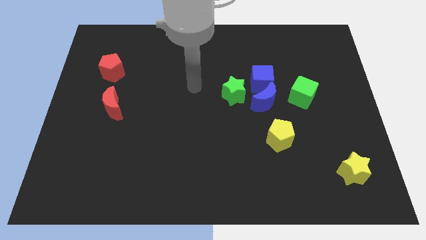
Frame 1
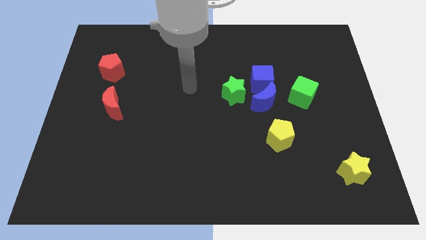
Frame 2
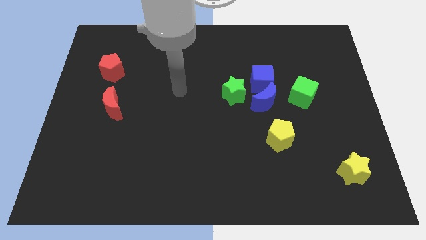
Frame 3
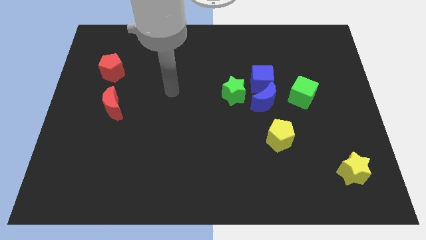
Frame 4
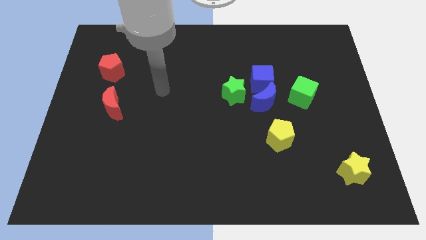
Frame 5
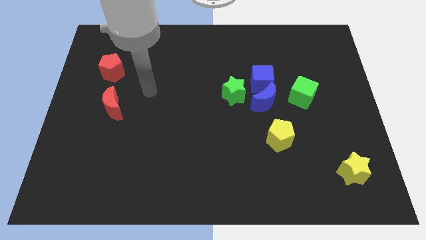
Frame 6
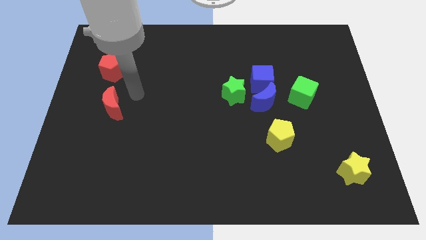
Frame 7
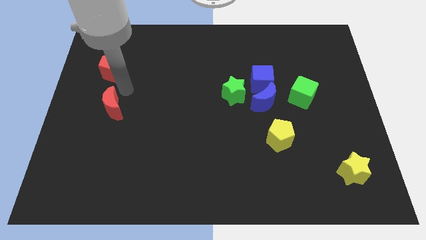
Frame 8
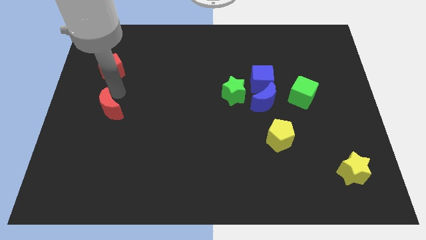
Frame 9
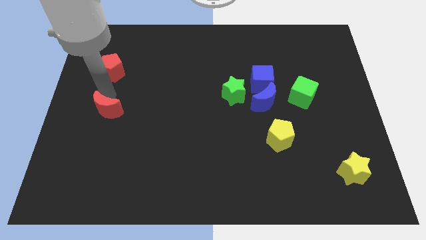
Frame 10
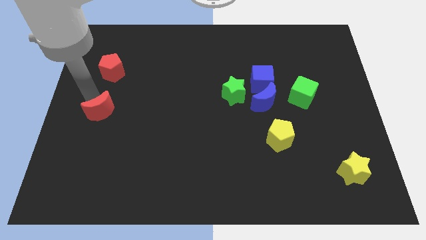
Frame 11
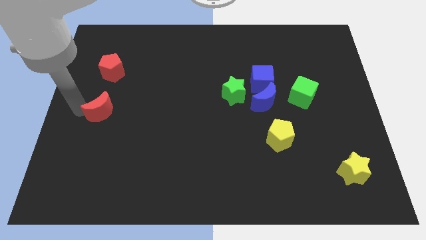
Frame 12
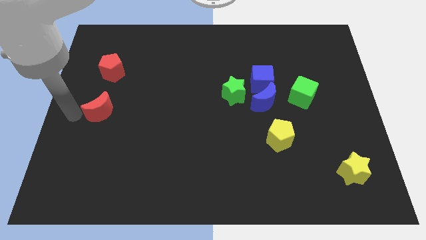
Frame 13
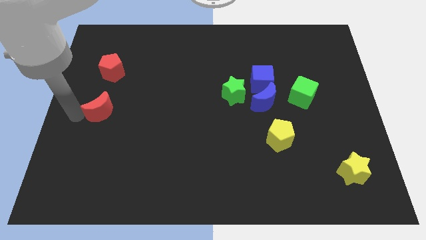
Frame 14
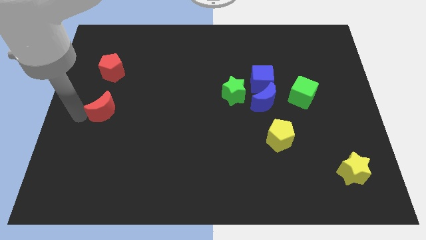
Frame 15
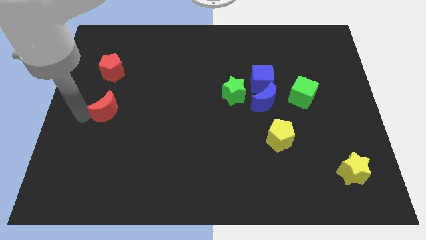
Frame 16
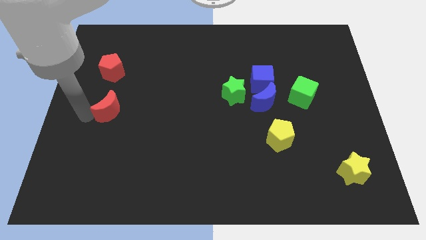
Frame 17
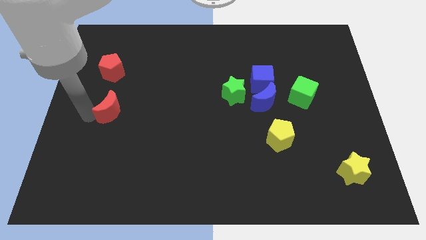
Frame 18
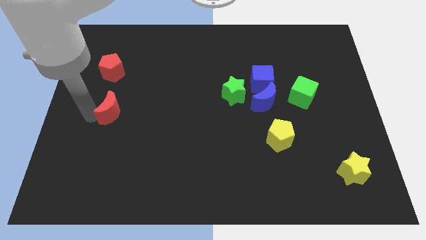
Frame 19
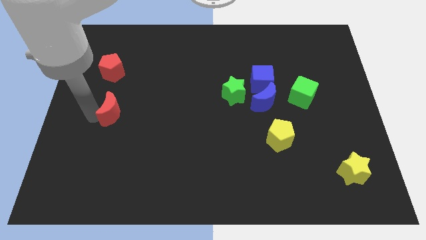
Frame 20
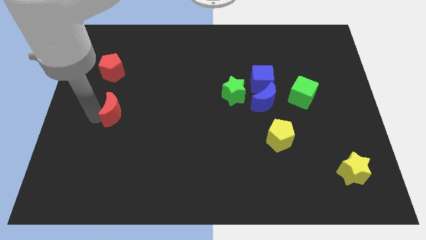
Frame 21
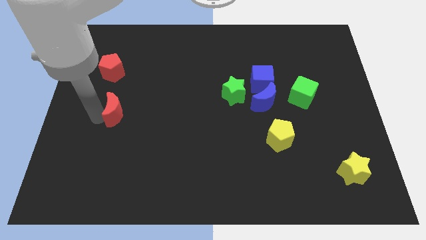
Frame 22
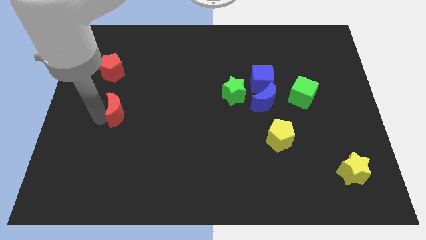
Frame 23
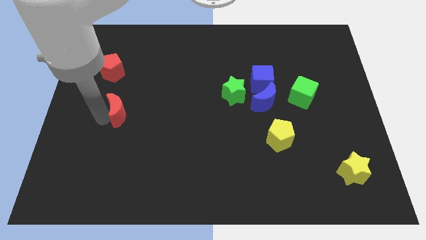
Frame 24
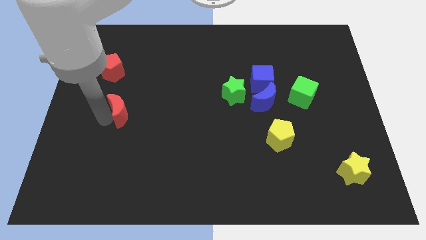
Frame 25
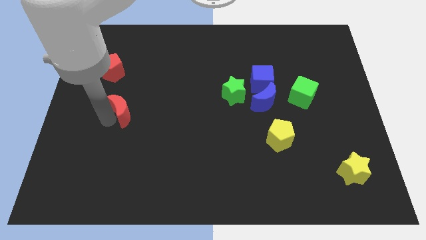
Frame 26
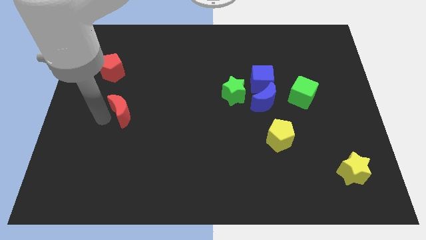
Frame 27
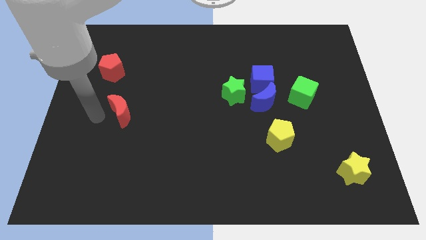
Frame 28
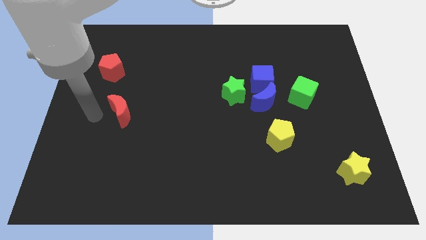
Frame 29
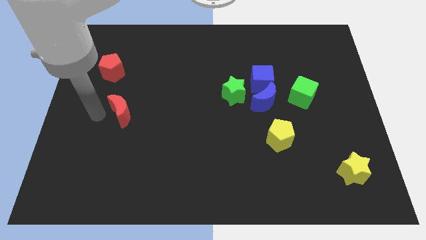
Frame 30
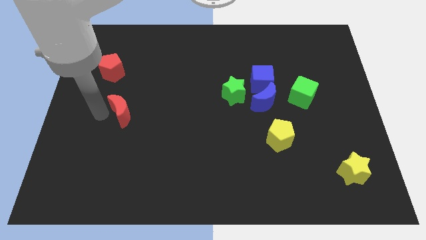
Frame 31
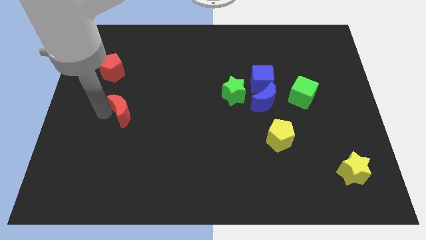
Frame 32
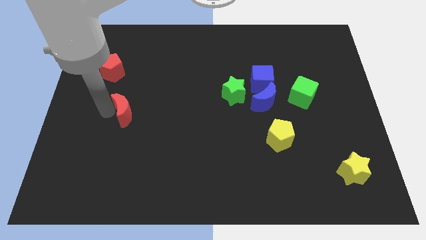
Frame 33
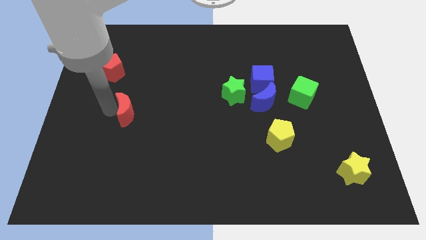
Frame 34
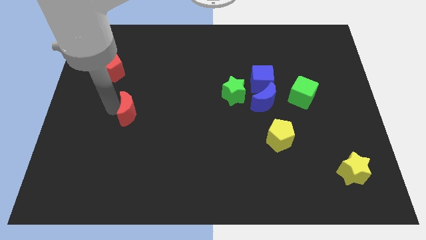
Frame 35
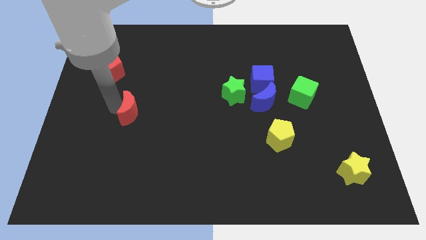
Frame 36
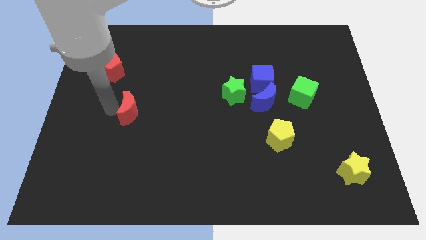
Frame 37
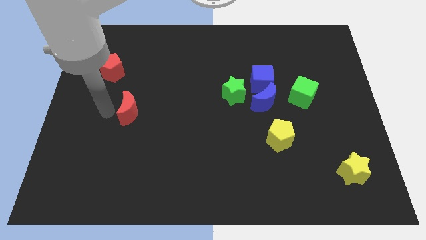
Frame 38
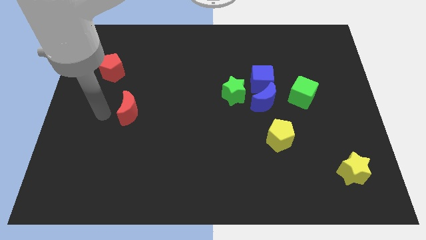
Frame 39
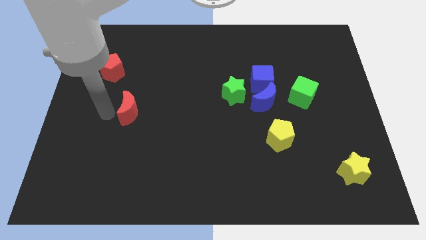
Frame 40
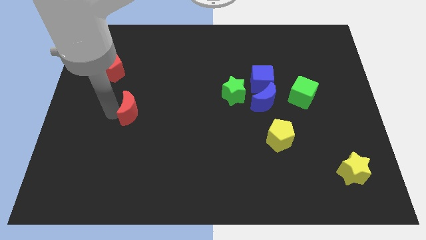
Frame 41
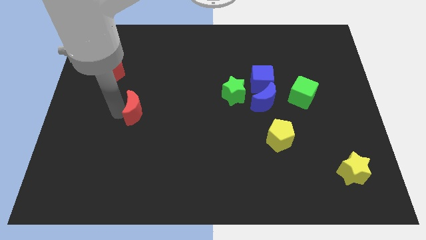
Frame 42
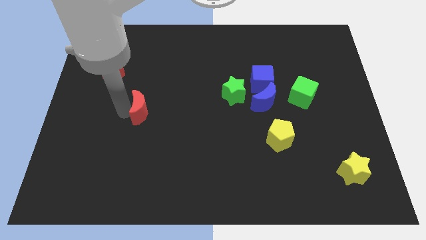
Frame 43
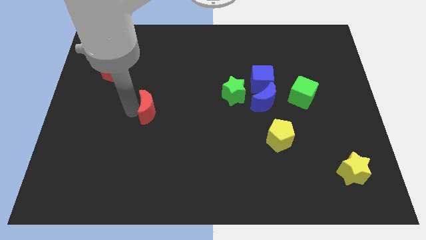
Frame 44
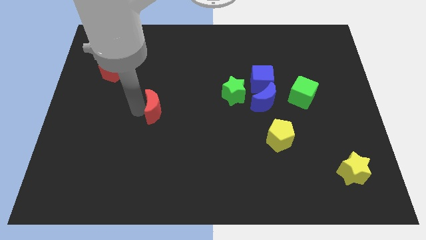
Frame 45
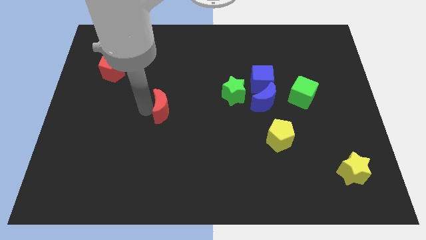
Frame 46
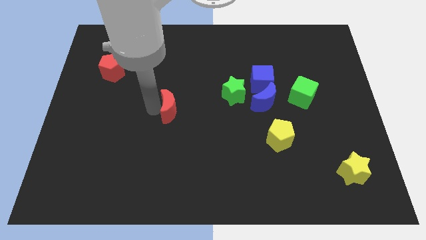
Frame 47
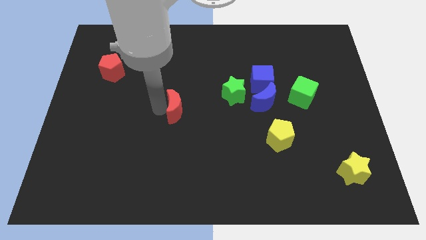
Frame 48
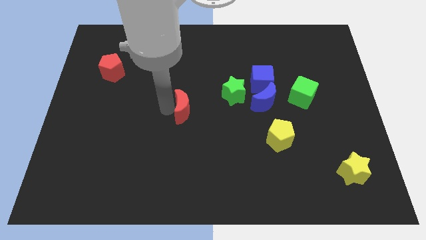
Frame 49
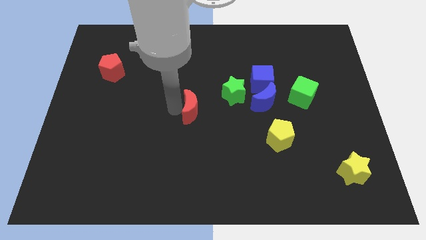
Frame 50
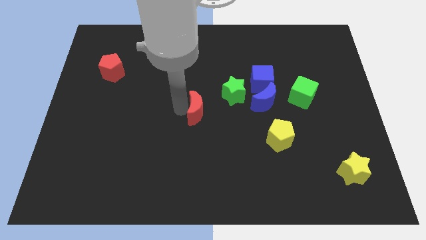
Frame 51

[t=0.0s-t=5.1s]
move the red moon right

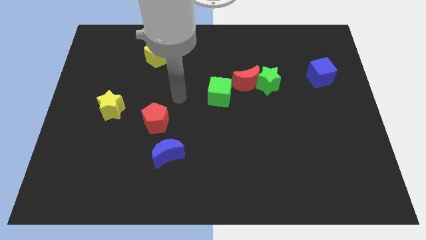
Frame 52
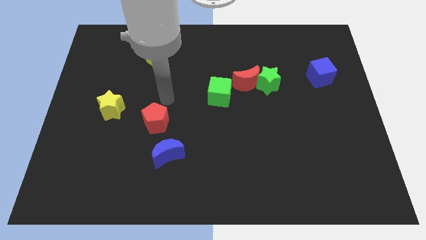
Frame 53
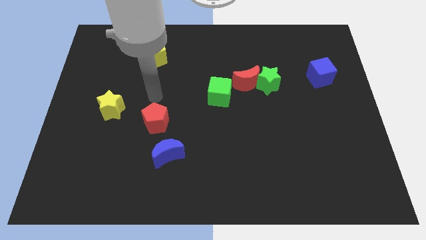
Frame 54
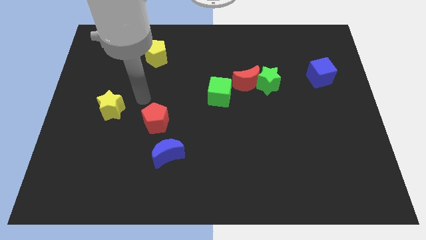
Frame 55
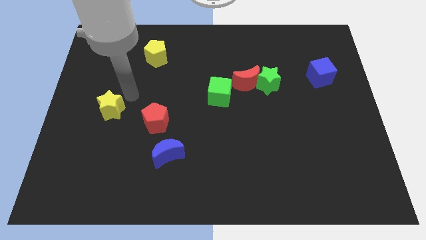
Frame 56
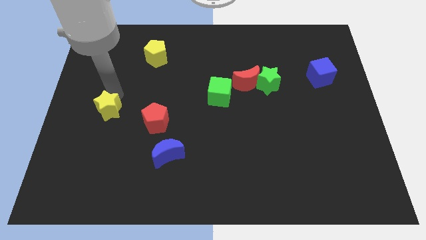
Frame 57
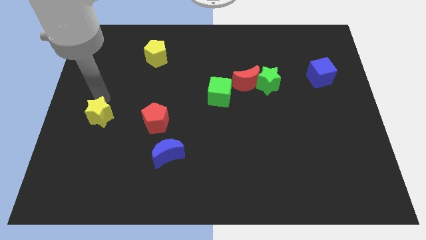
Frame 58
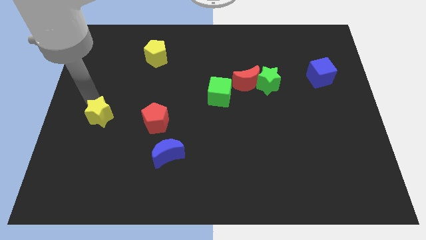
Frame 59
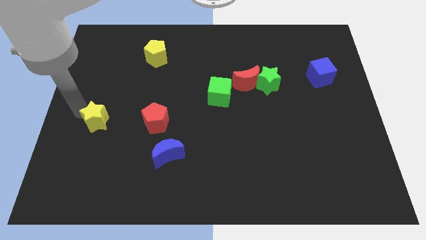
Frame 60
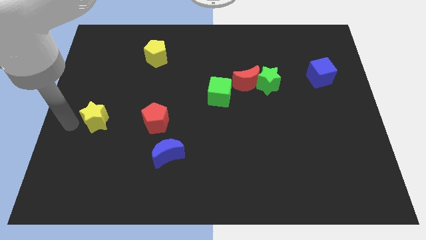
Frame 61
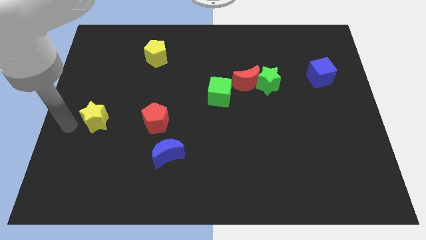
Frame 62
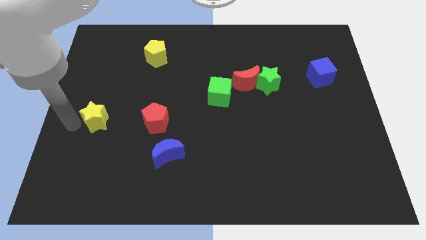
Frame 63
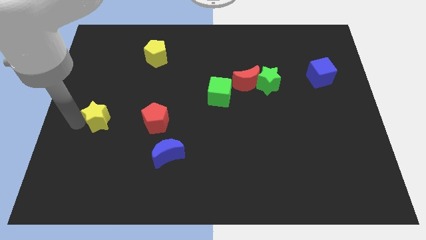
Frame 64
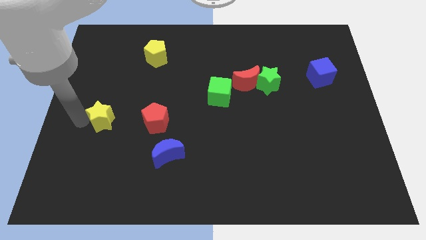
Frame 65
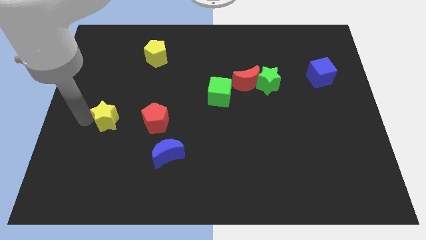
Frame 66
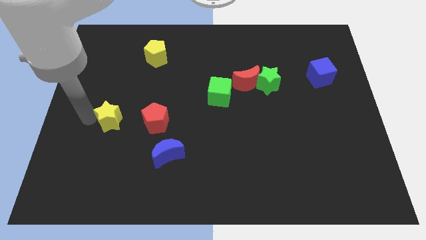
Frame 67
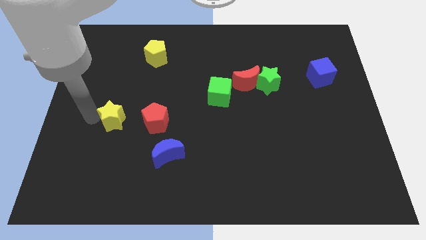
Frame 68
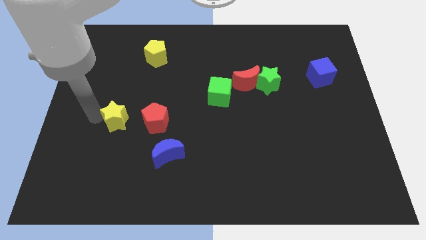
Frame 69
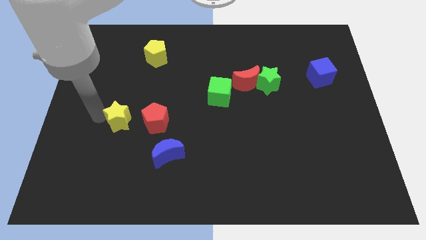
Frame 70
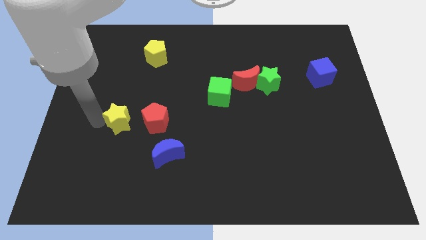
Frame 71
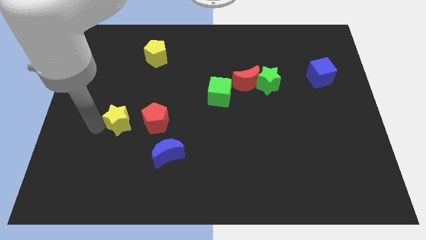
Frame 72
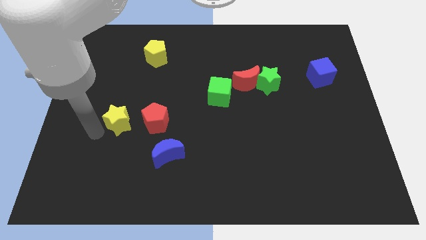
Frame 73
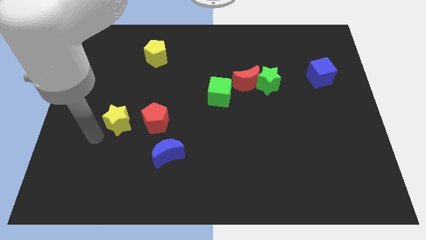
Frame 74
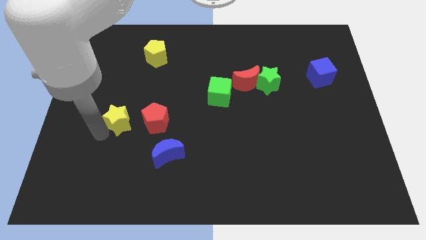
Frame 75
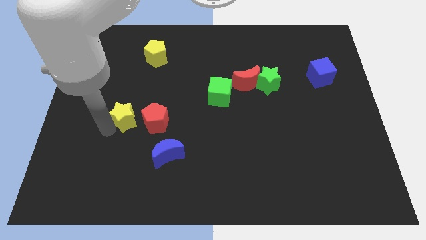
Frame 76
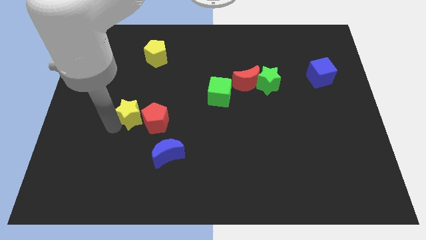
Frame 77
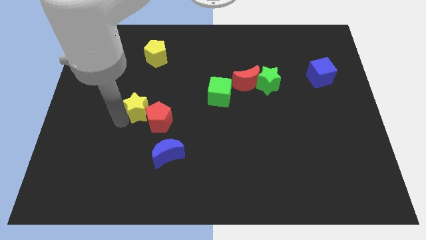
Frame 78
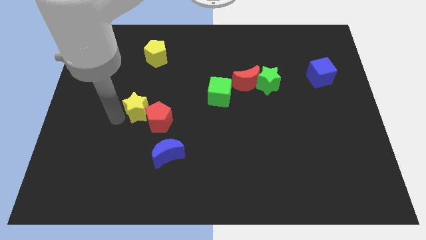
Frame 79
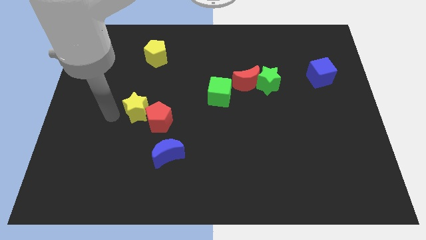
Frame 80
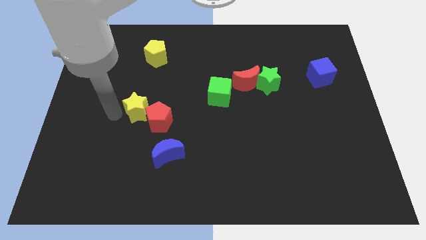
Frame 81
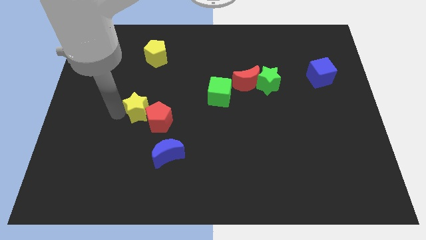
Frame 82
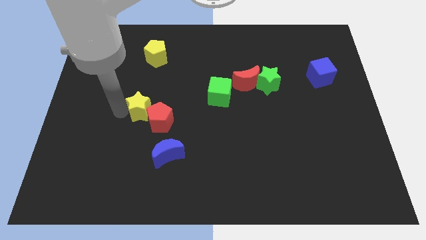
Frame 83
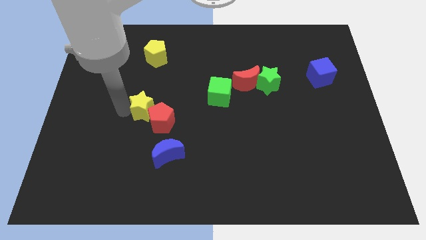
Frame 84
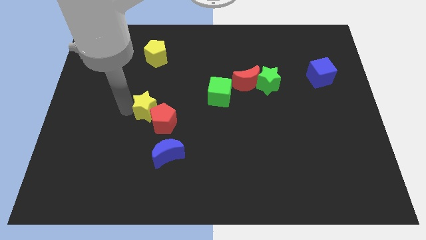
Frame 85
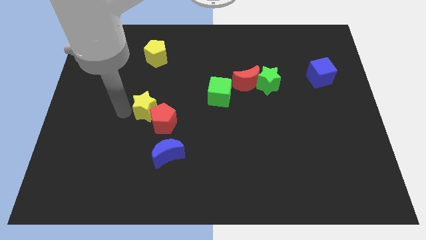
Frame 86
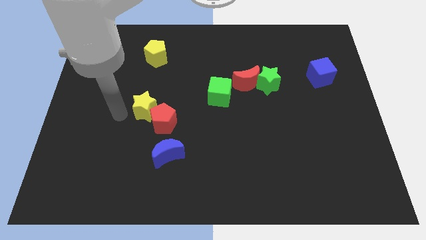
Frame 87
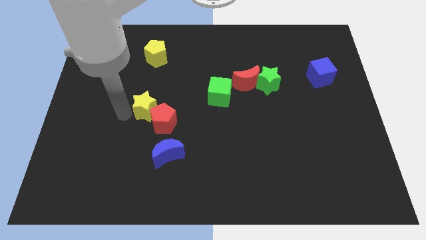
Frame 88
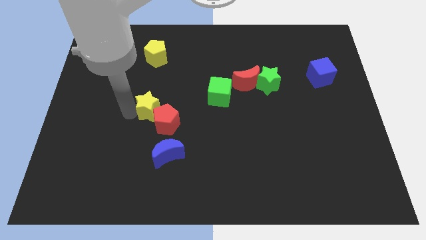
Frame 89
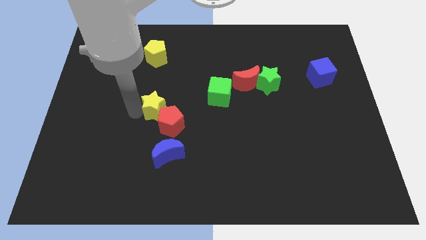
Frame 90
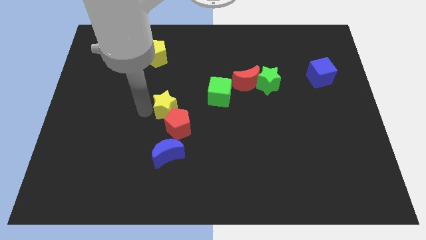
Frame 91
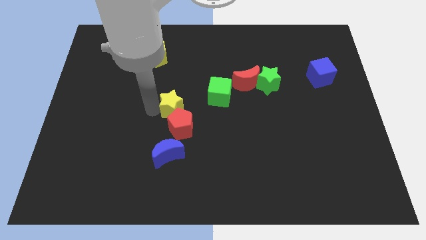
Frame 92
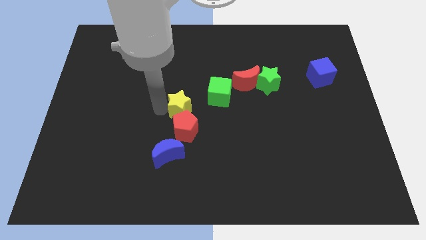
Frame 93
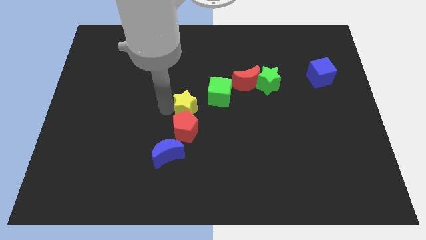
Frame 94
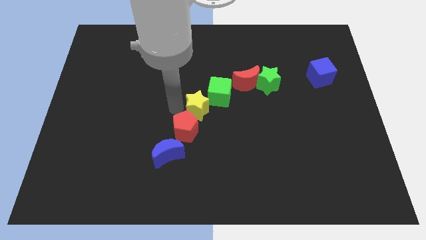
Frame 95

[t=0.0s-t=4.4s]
push the yellow star right
